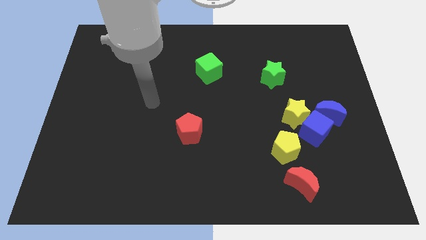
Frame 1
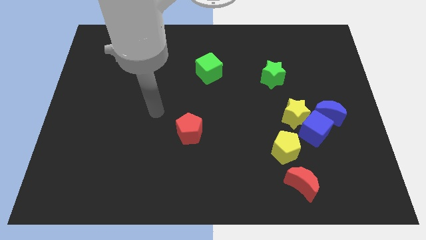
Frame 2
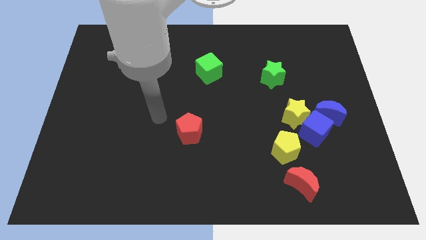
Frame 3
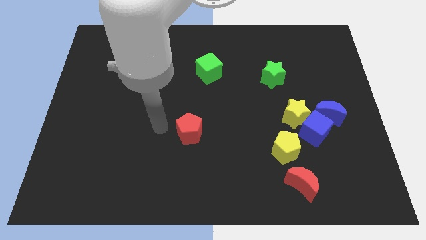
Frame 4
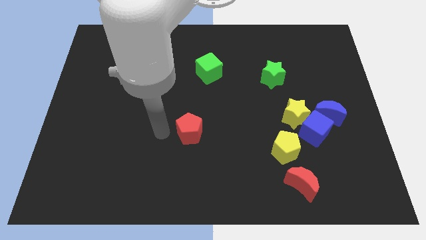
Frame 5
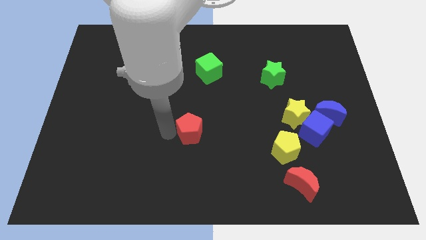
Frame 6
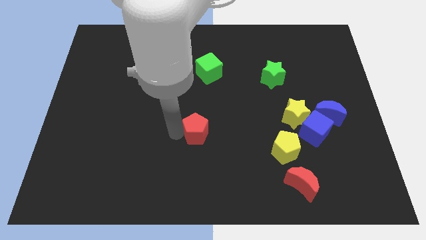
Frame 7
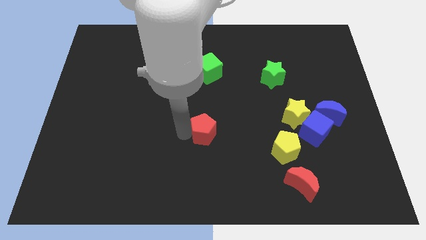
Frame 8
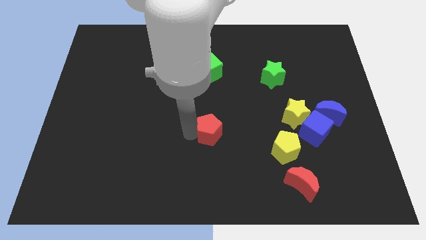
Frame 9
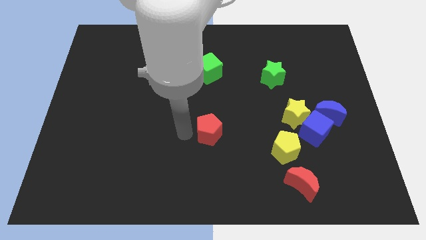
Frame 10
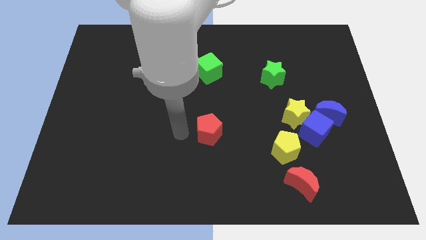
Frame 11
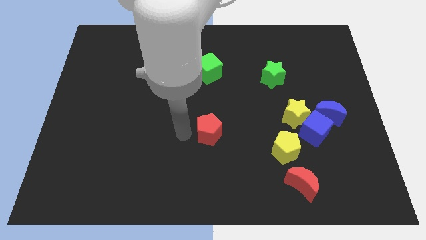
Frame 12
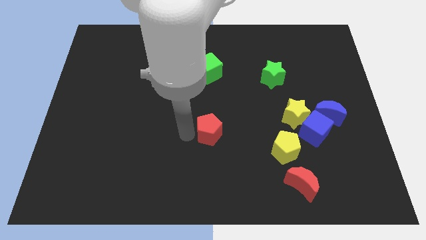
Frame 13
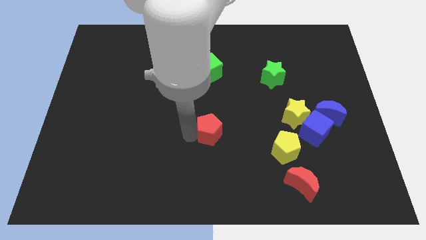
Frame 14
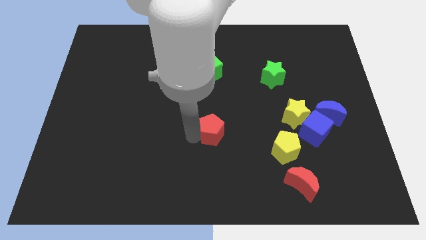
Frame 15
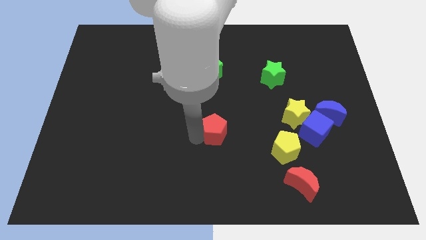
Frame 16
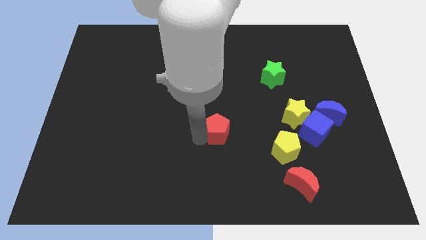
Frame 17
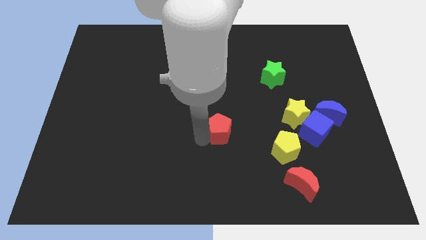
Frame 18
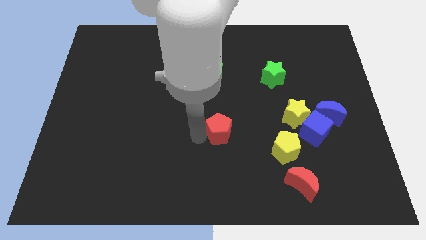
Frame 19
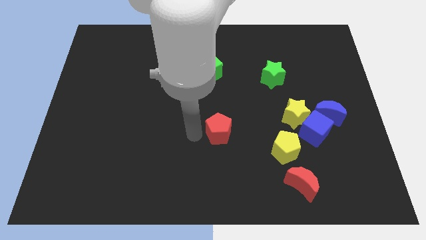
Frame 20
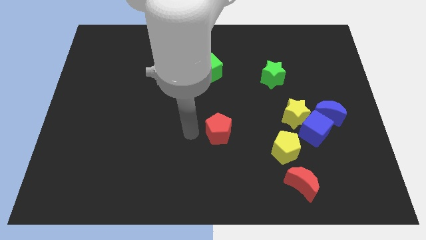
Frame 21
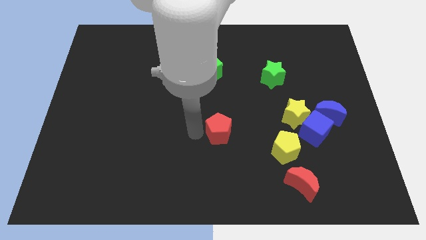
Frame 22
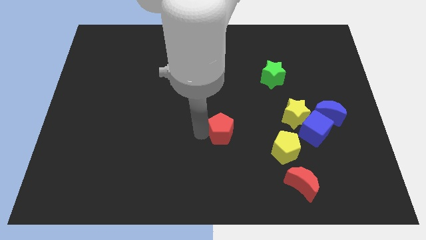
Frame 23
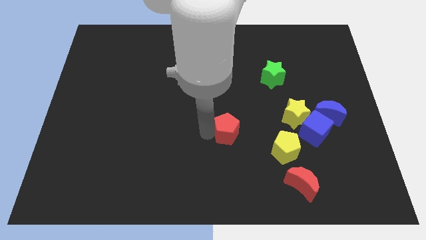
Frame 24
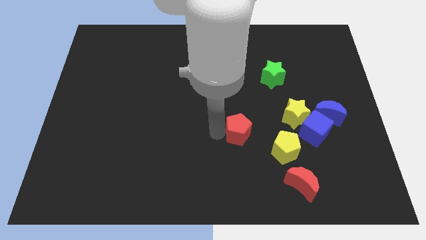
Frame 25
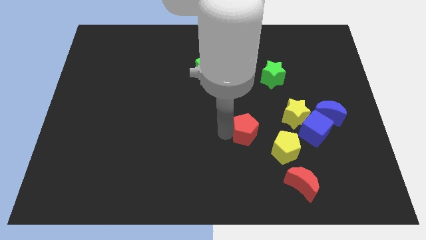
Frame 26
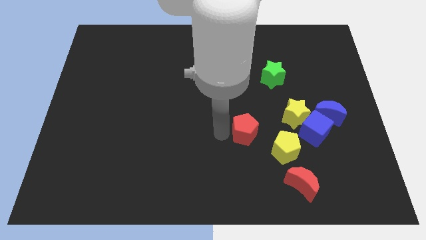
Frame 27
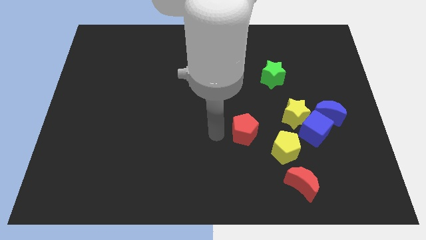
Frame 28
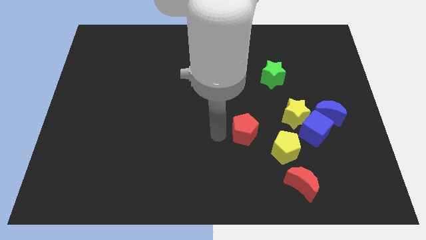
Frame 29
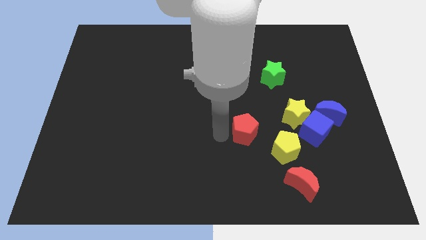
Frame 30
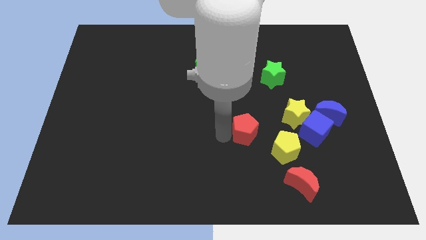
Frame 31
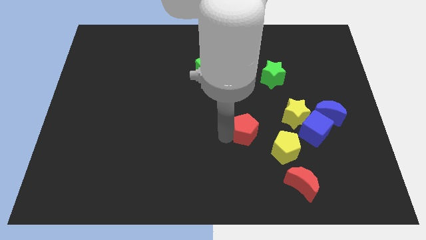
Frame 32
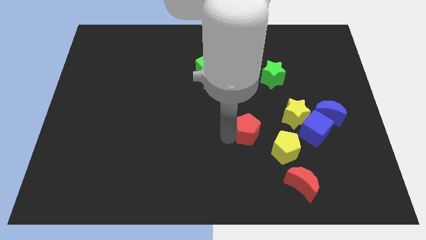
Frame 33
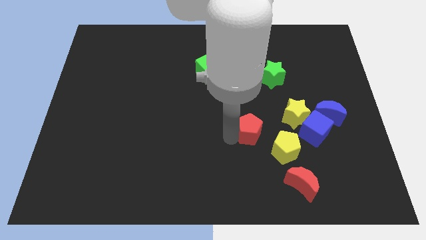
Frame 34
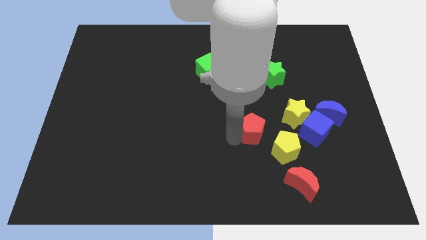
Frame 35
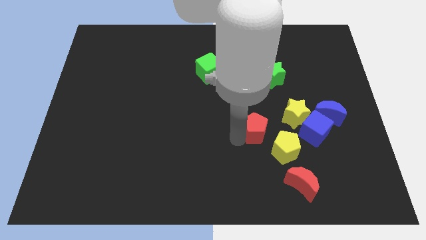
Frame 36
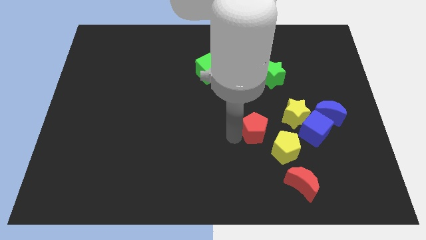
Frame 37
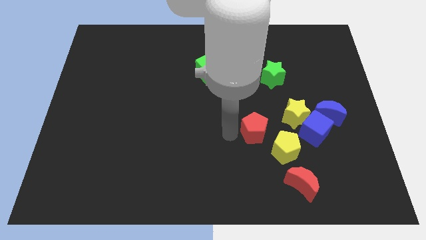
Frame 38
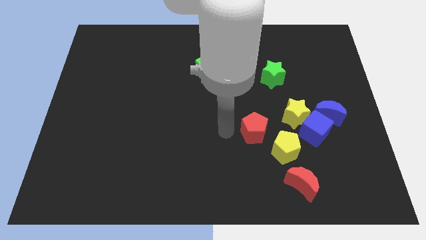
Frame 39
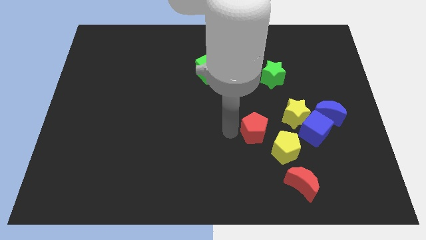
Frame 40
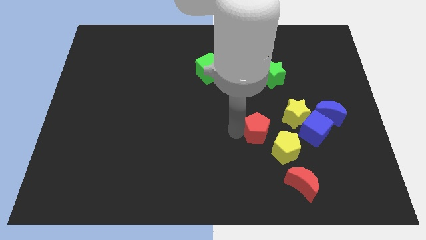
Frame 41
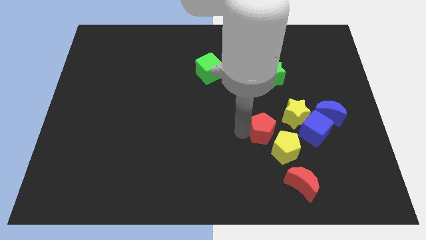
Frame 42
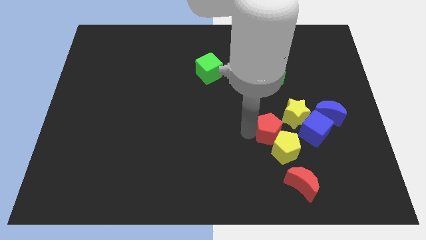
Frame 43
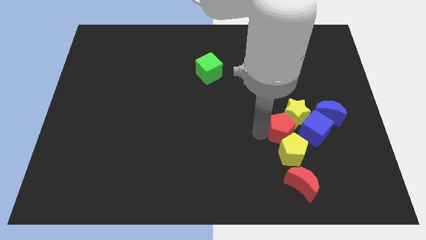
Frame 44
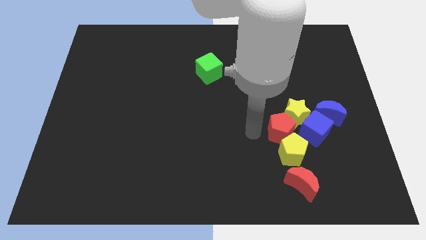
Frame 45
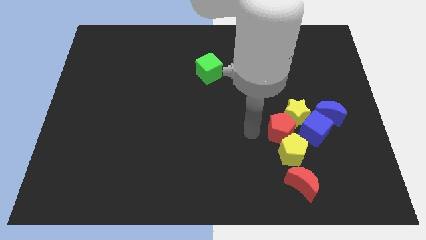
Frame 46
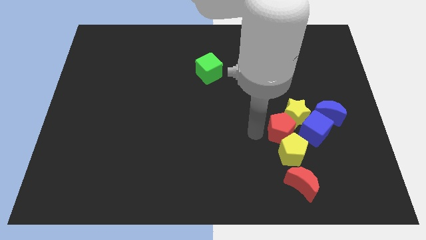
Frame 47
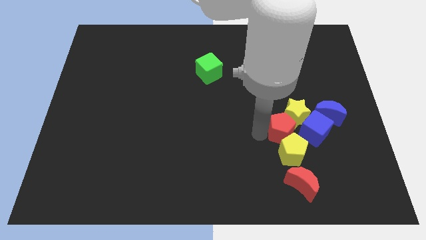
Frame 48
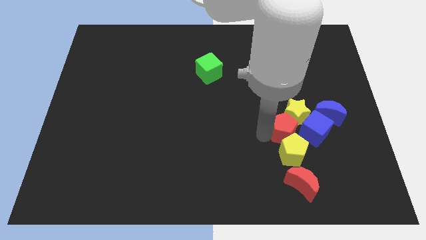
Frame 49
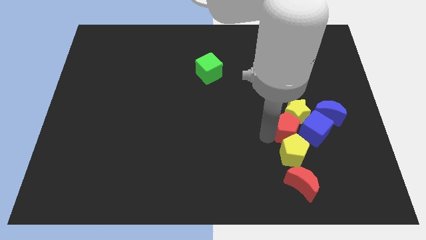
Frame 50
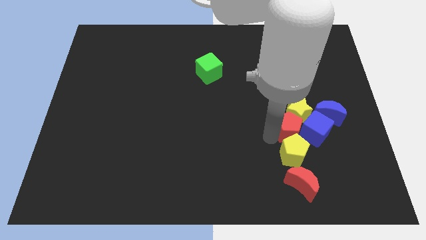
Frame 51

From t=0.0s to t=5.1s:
move the red pentagon towards the blue cube

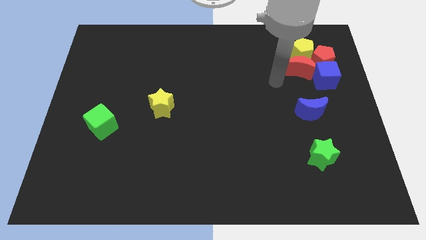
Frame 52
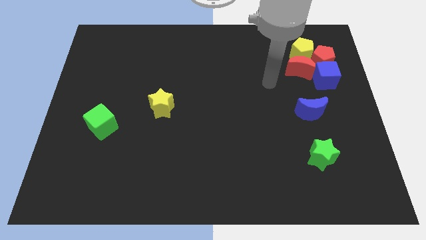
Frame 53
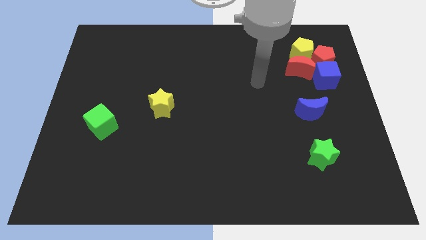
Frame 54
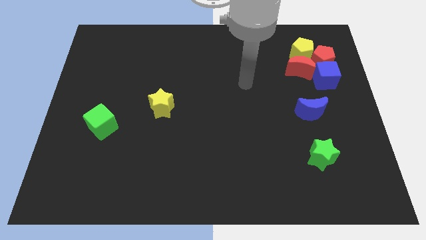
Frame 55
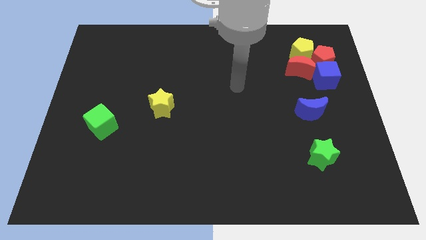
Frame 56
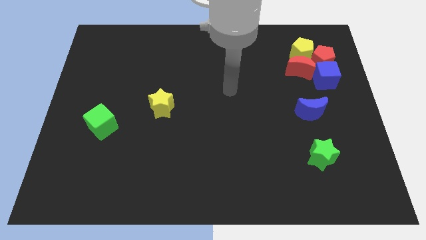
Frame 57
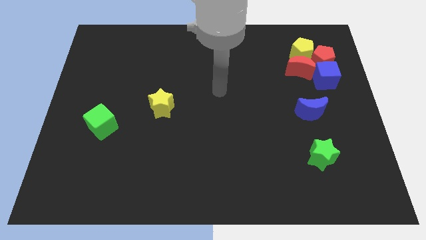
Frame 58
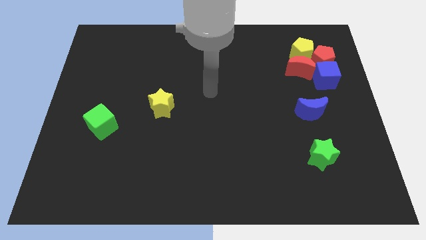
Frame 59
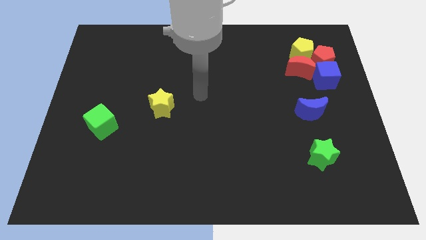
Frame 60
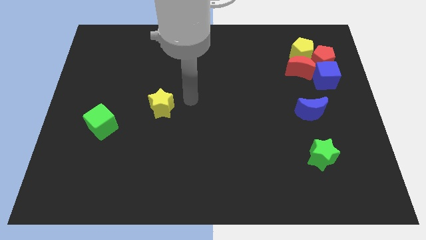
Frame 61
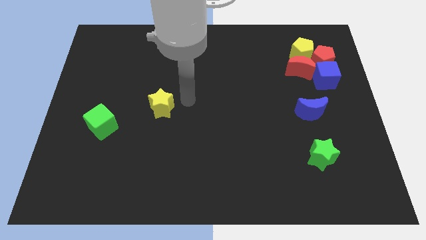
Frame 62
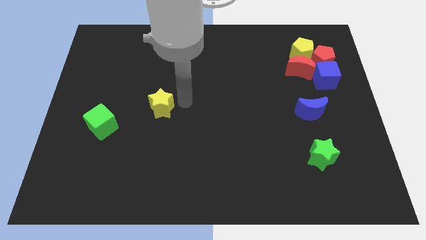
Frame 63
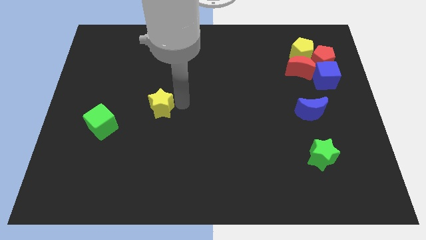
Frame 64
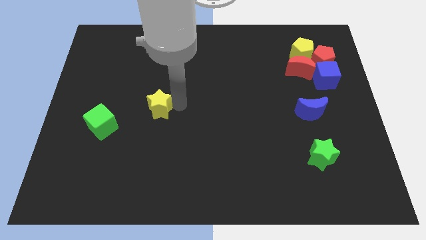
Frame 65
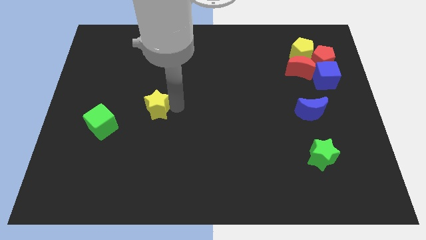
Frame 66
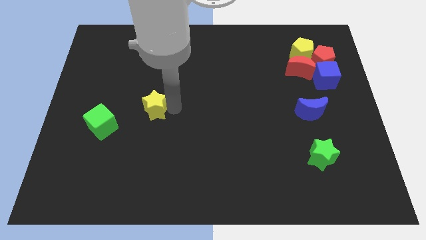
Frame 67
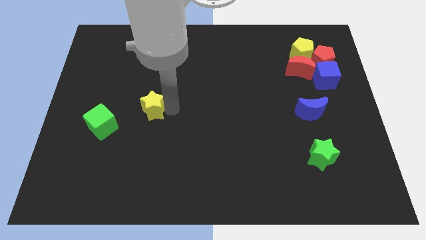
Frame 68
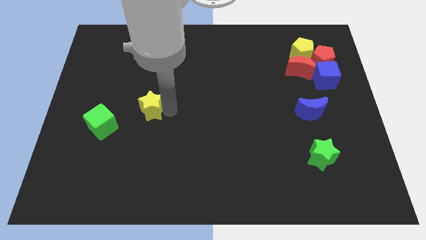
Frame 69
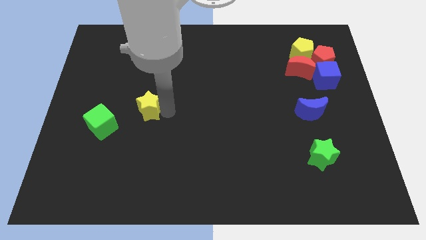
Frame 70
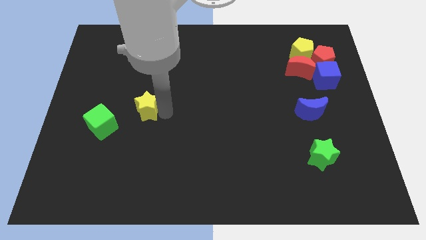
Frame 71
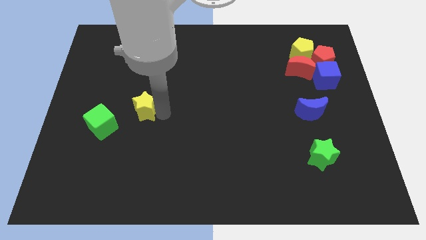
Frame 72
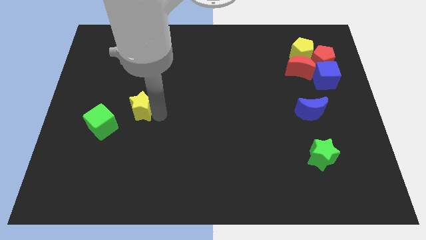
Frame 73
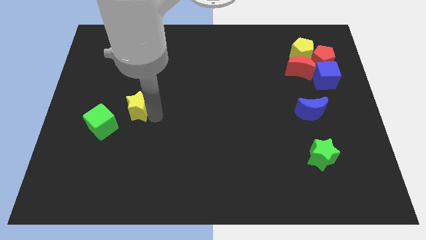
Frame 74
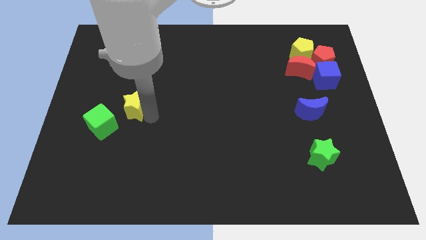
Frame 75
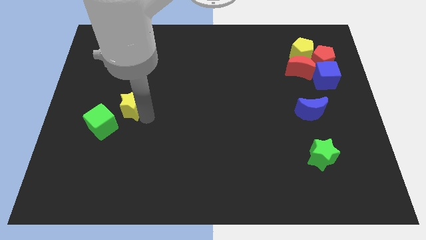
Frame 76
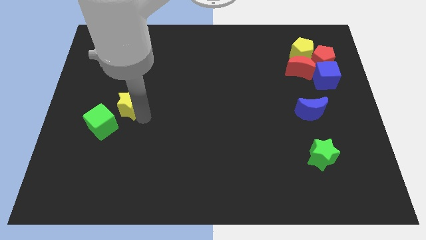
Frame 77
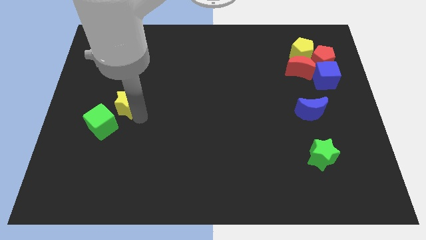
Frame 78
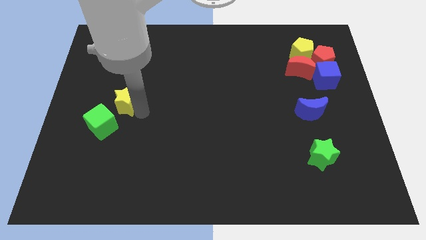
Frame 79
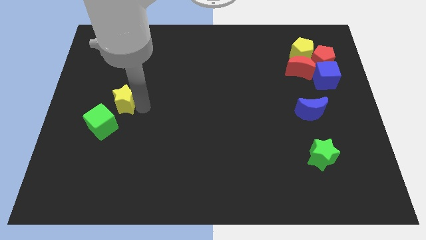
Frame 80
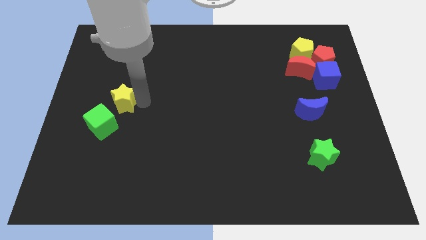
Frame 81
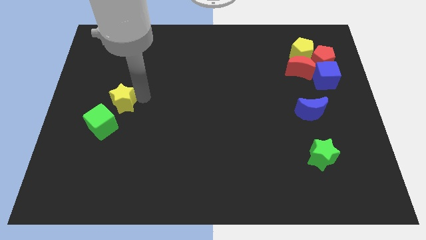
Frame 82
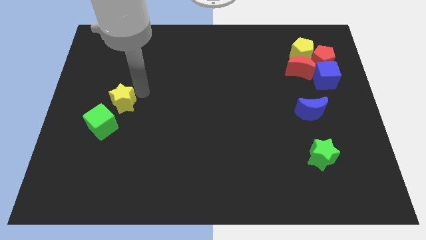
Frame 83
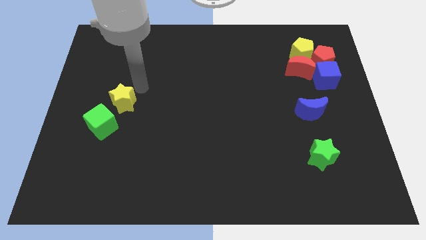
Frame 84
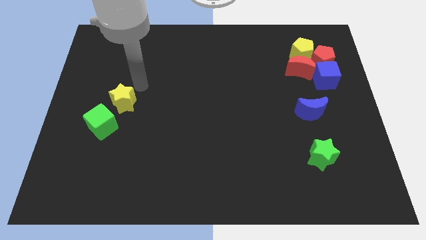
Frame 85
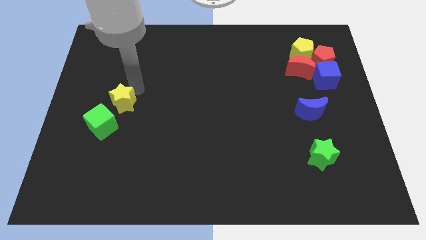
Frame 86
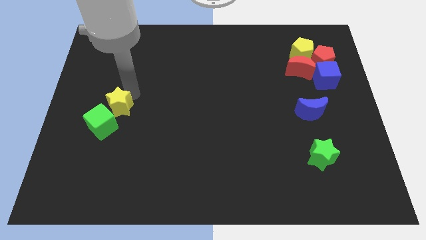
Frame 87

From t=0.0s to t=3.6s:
put the yellow star to the green cube
